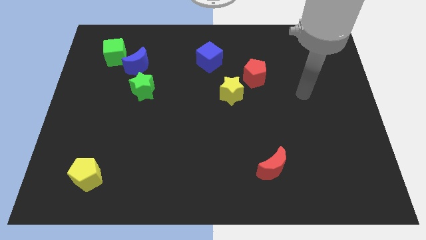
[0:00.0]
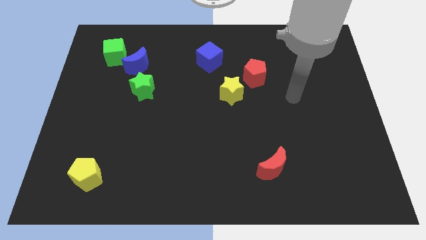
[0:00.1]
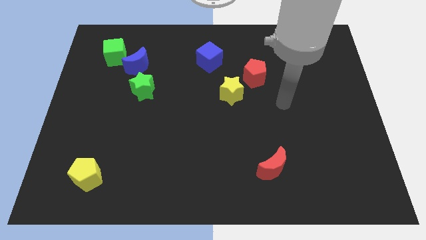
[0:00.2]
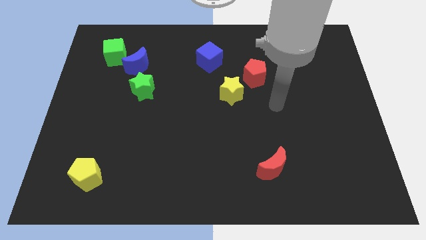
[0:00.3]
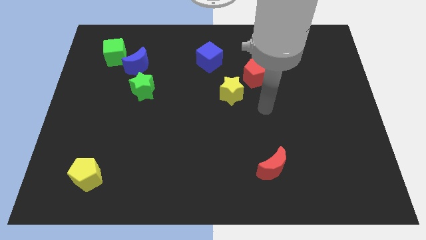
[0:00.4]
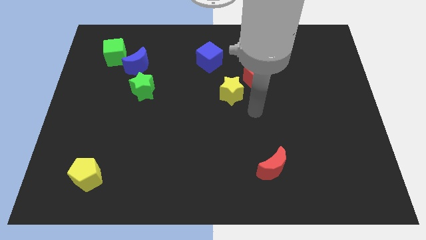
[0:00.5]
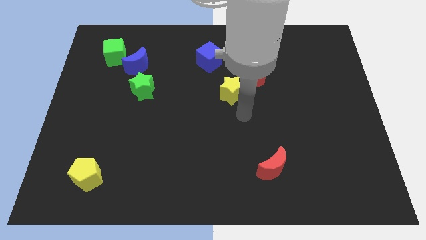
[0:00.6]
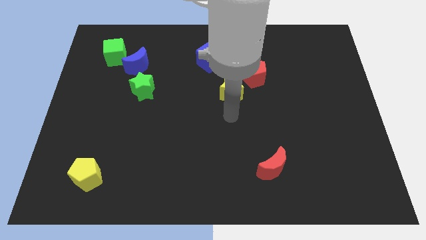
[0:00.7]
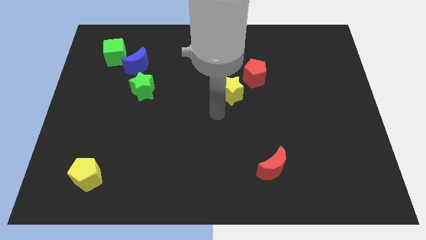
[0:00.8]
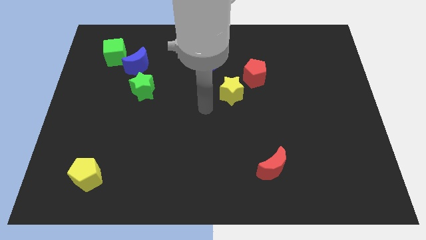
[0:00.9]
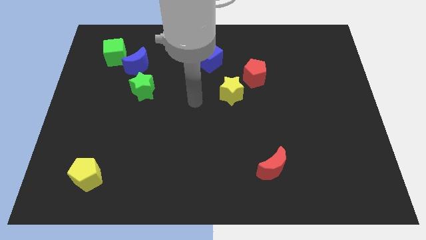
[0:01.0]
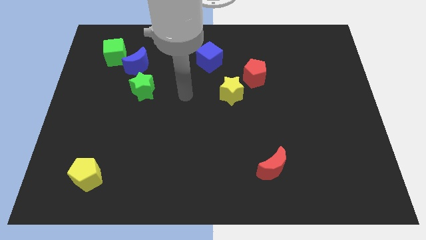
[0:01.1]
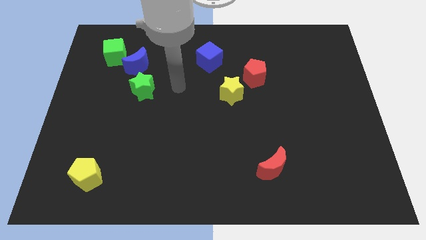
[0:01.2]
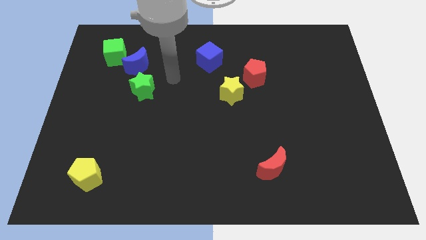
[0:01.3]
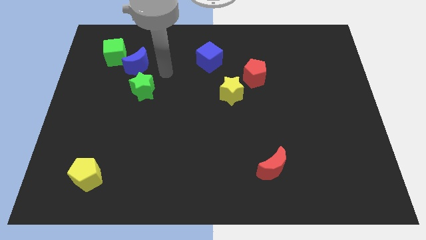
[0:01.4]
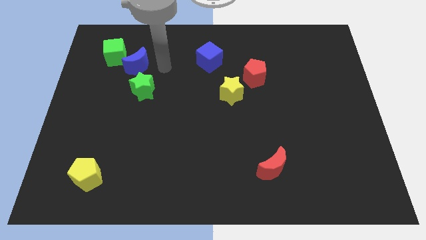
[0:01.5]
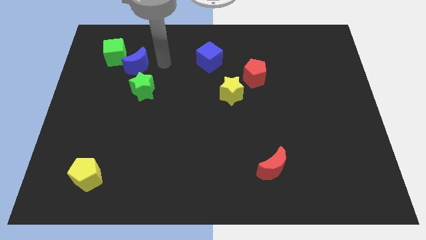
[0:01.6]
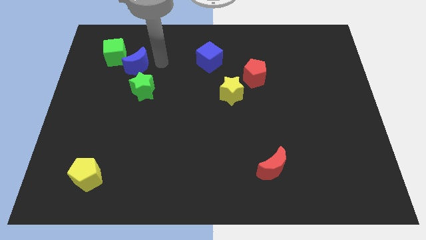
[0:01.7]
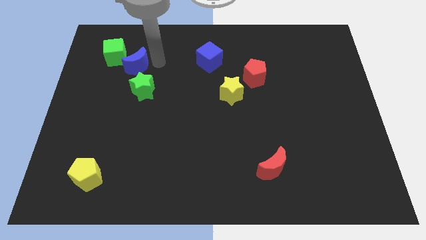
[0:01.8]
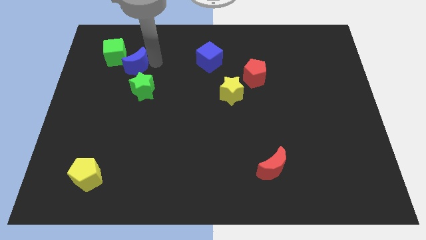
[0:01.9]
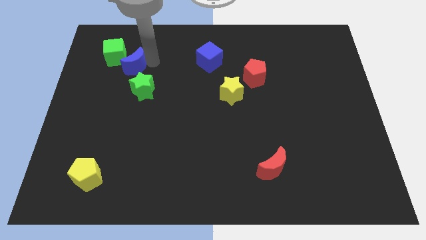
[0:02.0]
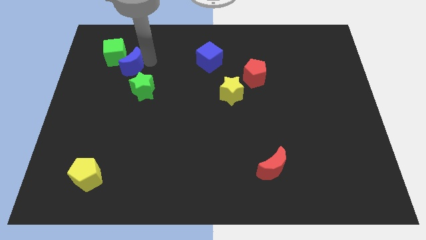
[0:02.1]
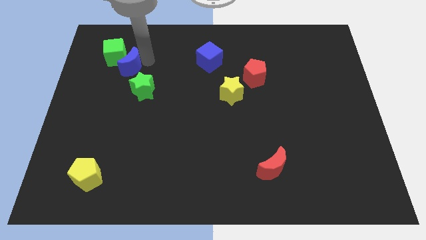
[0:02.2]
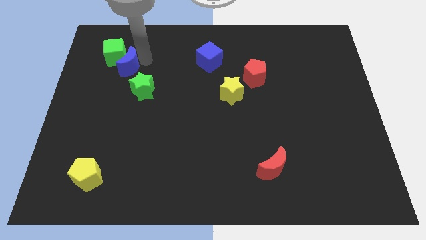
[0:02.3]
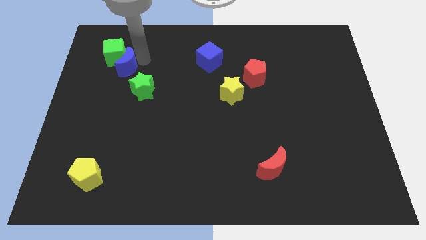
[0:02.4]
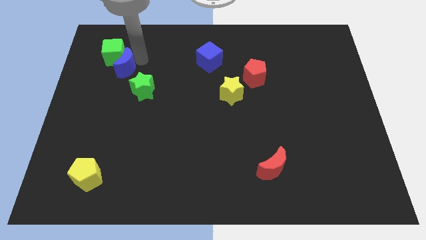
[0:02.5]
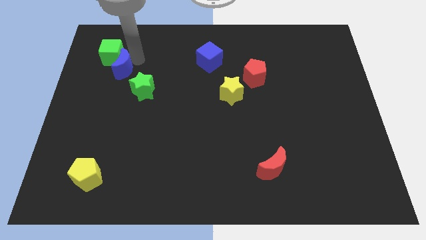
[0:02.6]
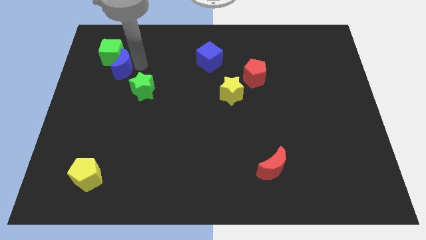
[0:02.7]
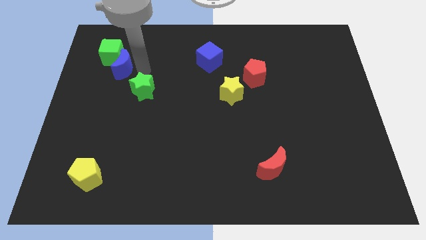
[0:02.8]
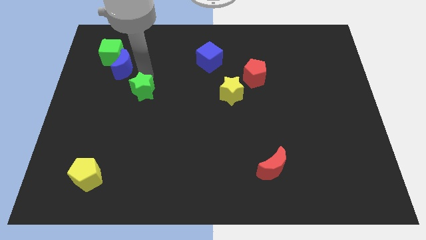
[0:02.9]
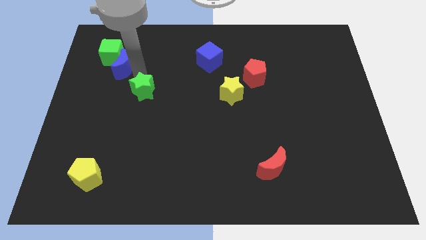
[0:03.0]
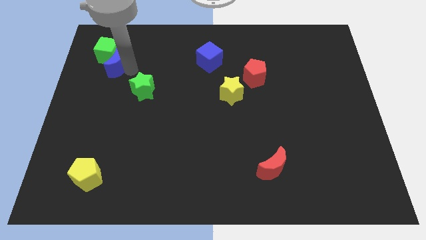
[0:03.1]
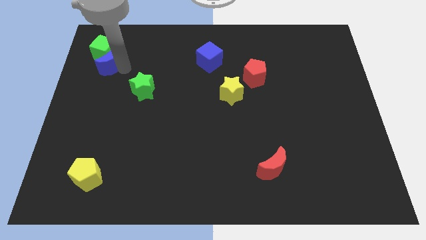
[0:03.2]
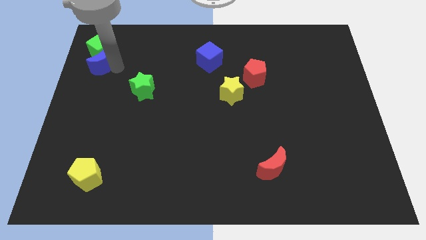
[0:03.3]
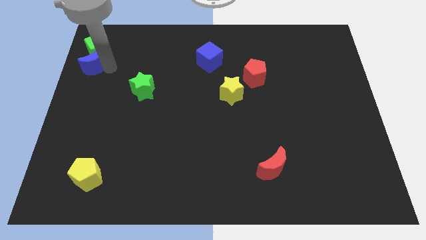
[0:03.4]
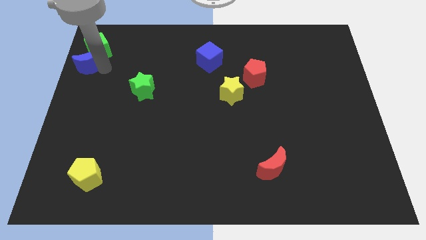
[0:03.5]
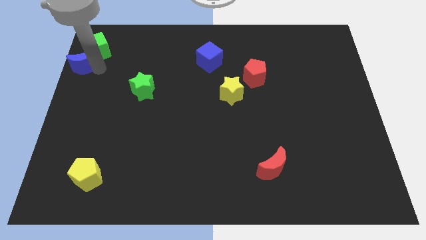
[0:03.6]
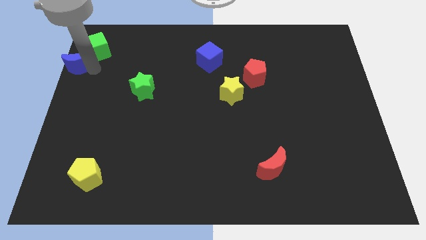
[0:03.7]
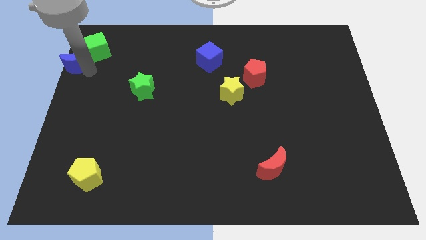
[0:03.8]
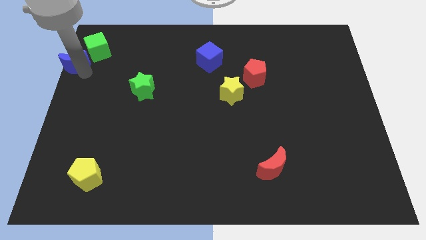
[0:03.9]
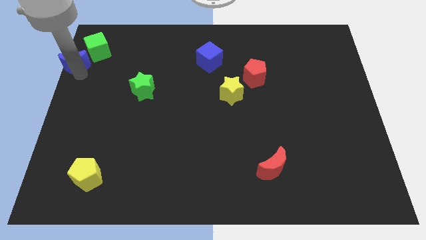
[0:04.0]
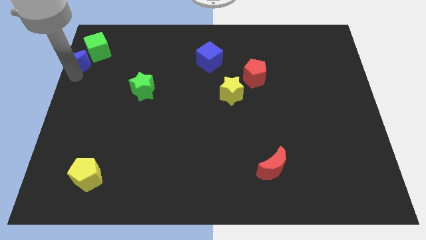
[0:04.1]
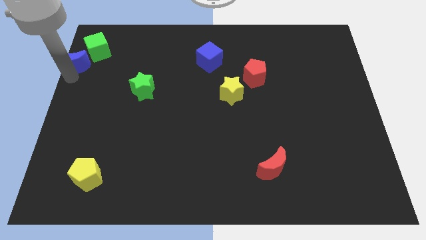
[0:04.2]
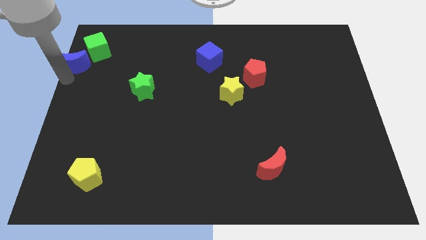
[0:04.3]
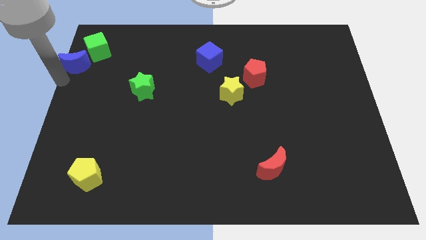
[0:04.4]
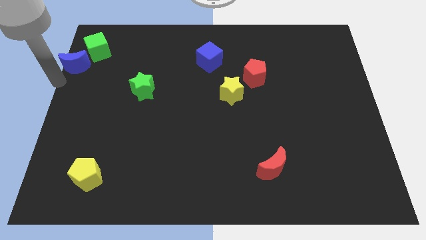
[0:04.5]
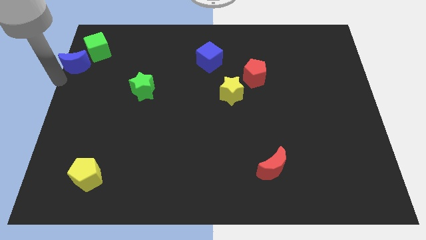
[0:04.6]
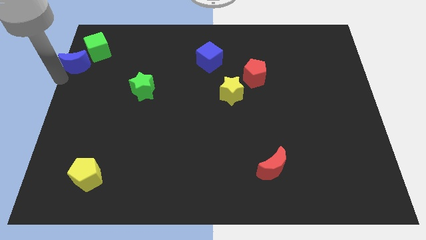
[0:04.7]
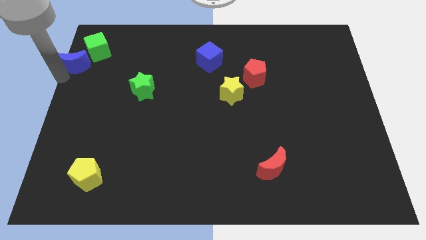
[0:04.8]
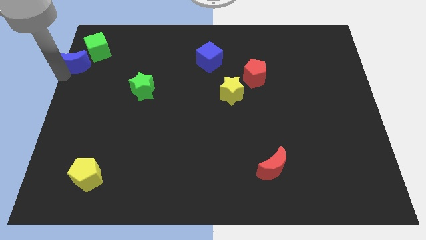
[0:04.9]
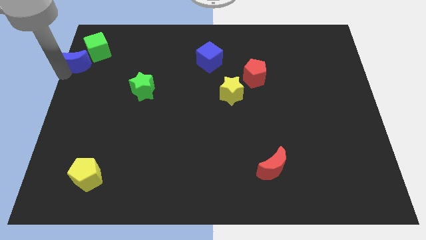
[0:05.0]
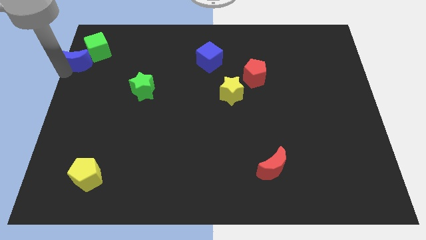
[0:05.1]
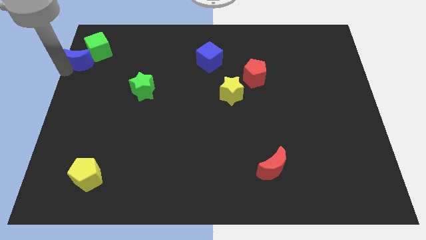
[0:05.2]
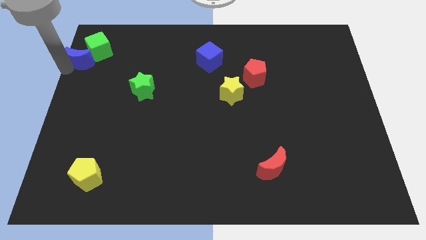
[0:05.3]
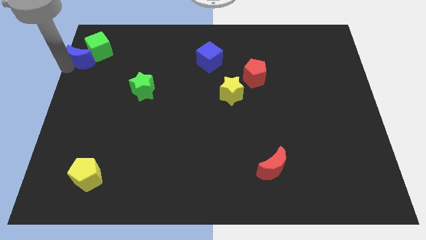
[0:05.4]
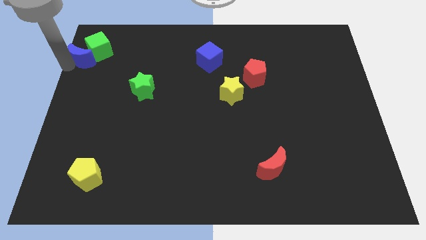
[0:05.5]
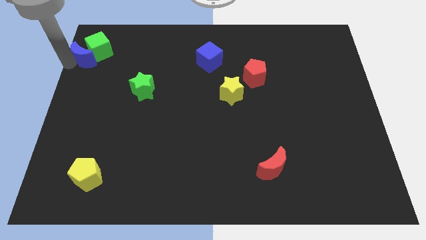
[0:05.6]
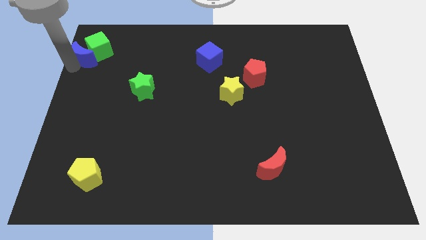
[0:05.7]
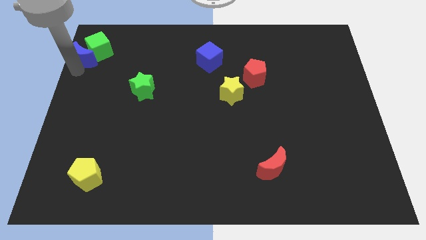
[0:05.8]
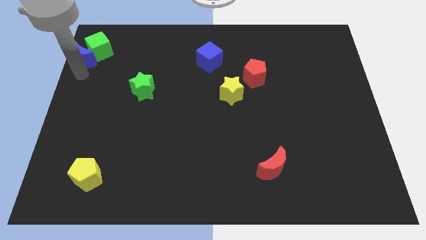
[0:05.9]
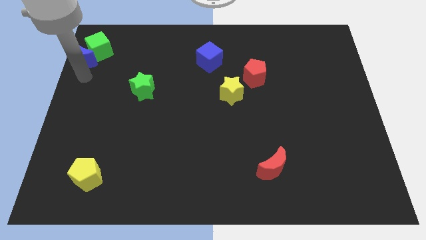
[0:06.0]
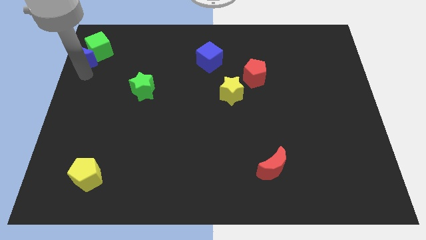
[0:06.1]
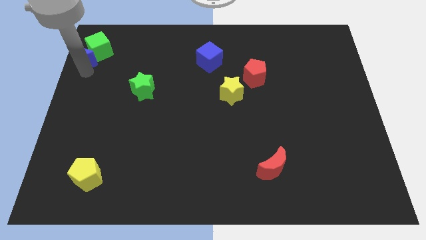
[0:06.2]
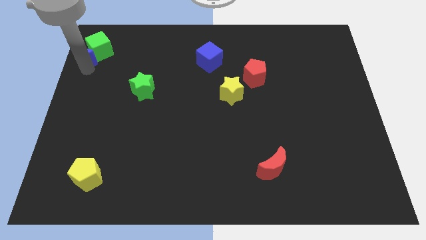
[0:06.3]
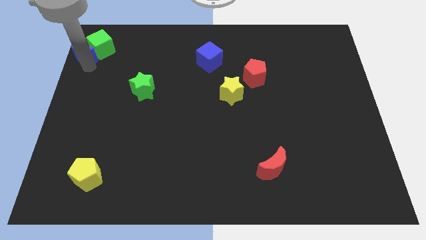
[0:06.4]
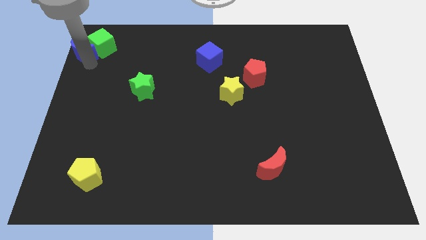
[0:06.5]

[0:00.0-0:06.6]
push the blue moon to the top left

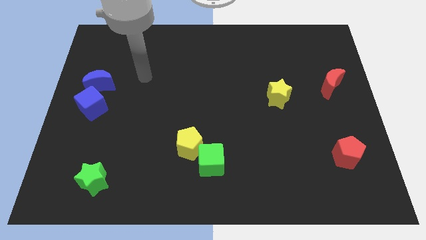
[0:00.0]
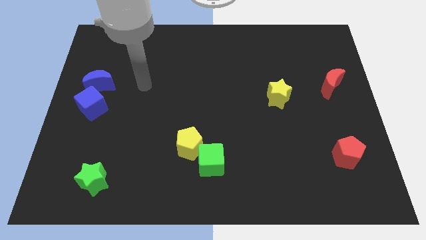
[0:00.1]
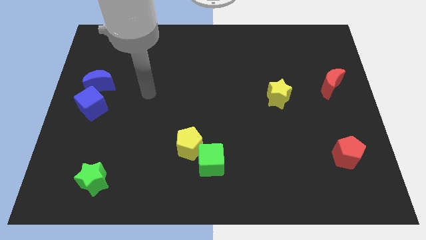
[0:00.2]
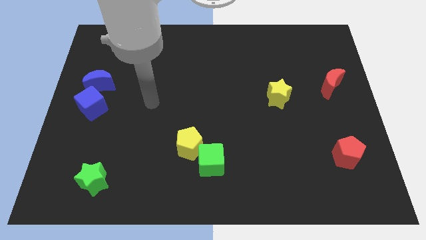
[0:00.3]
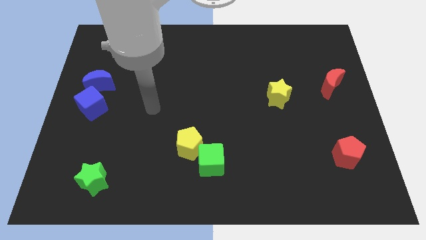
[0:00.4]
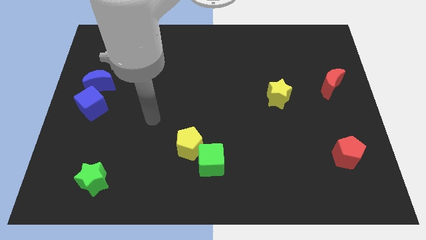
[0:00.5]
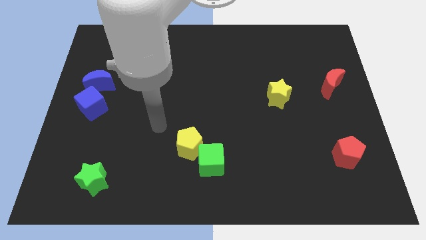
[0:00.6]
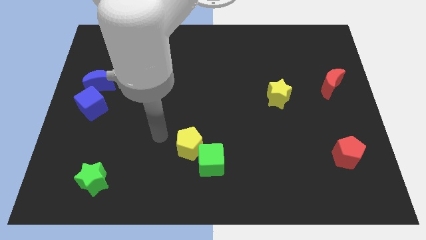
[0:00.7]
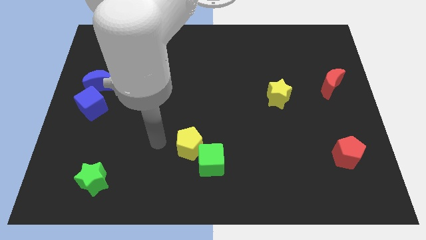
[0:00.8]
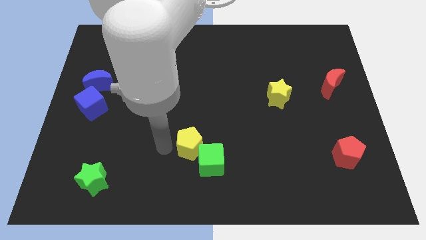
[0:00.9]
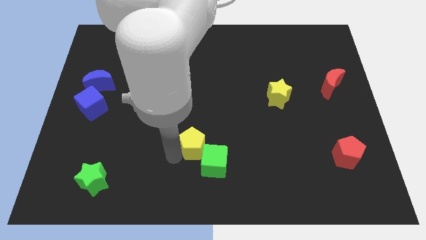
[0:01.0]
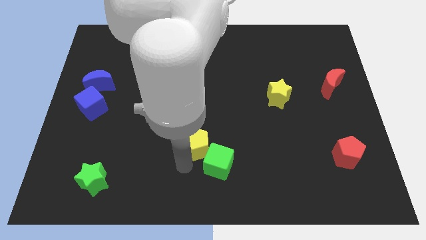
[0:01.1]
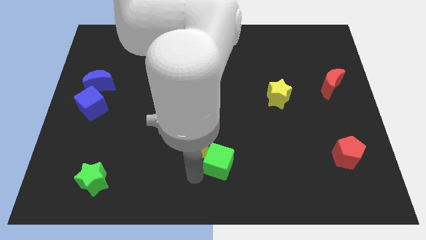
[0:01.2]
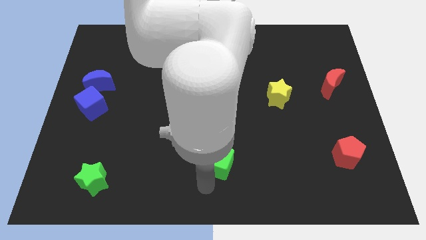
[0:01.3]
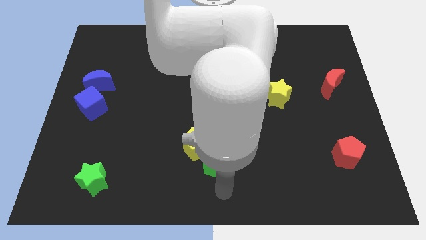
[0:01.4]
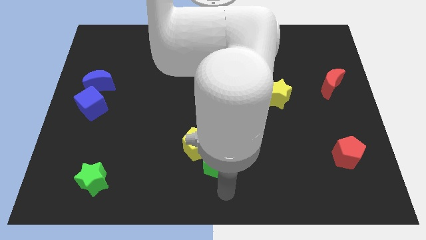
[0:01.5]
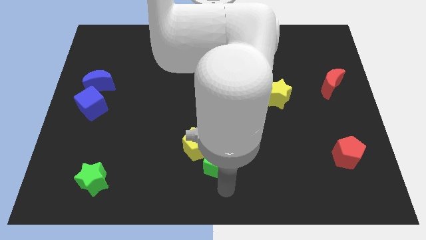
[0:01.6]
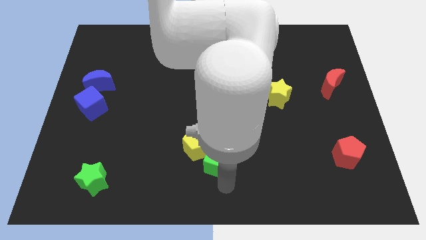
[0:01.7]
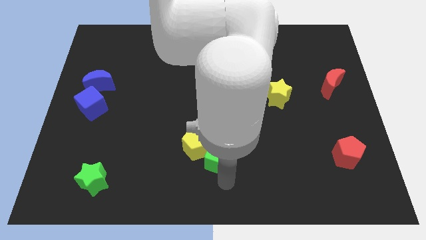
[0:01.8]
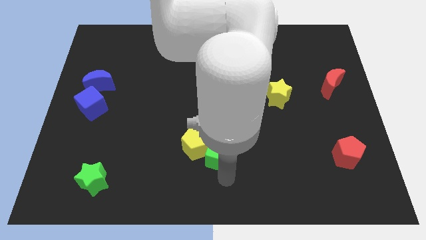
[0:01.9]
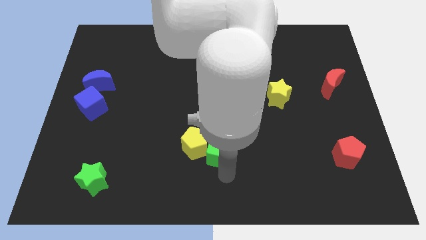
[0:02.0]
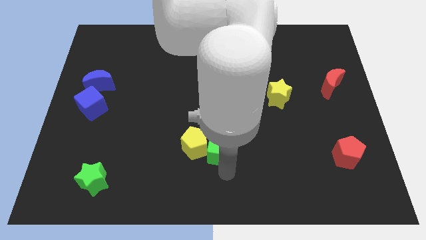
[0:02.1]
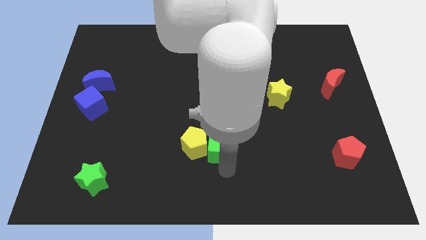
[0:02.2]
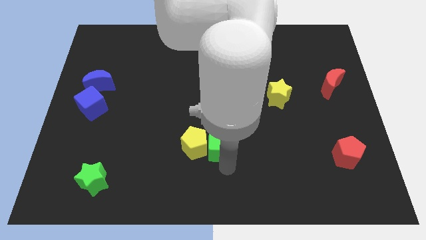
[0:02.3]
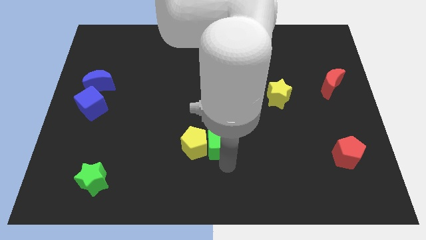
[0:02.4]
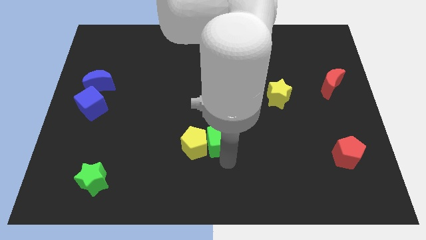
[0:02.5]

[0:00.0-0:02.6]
put the green cube to the middle
